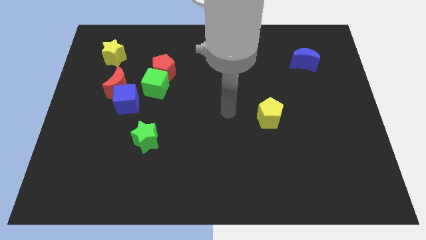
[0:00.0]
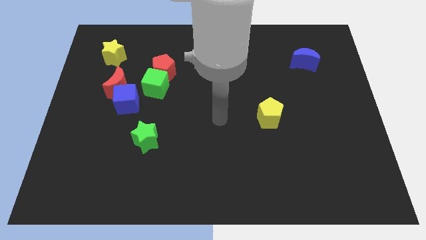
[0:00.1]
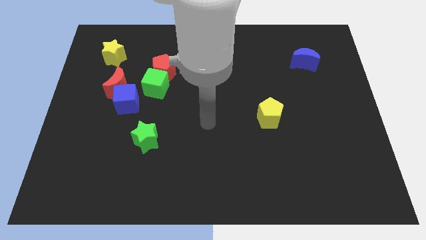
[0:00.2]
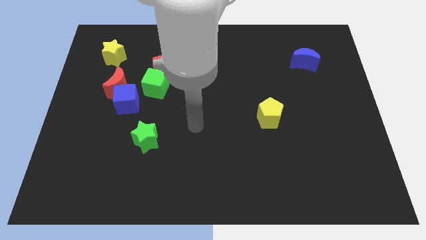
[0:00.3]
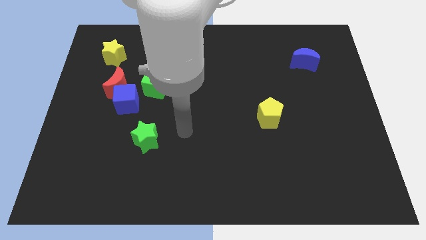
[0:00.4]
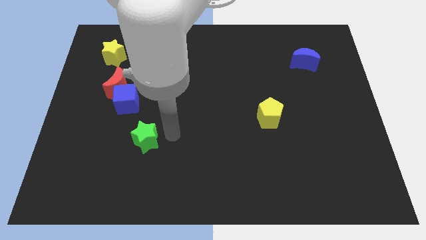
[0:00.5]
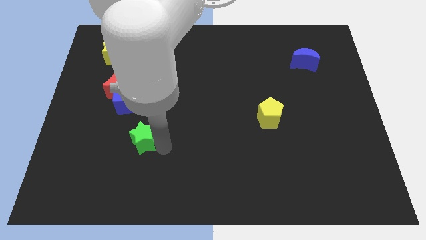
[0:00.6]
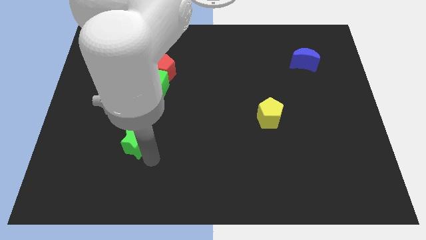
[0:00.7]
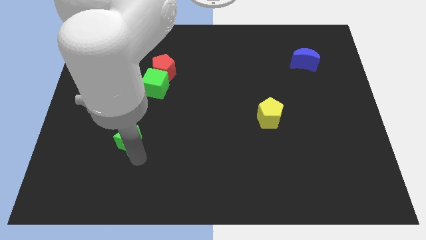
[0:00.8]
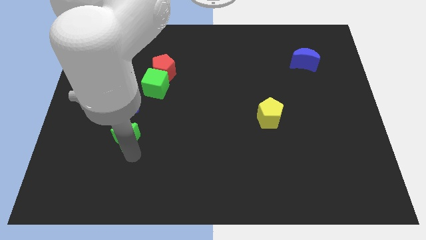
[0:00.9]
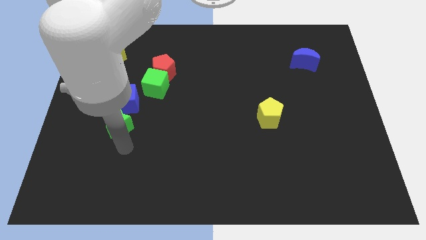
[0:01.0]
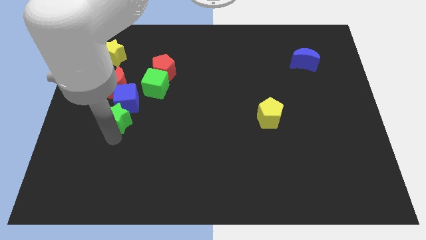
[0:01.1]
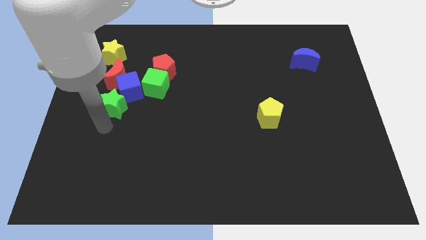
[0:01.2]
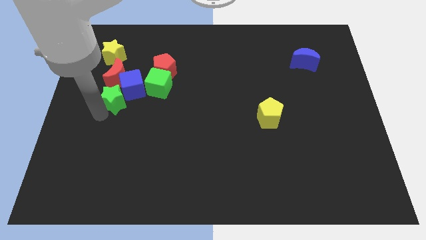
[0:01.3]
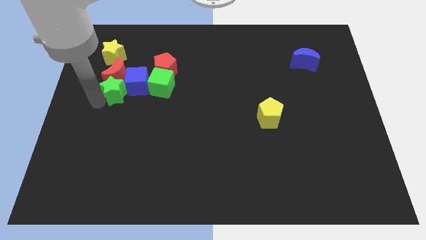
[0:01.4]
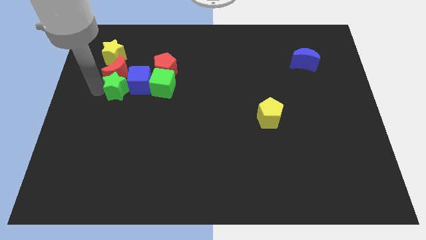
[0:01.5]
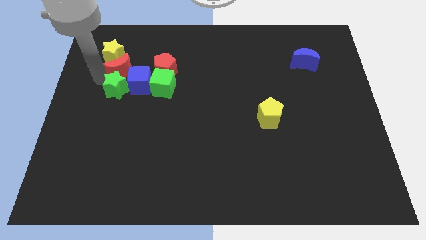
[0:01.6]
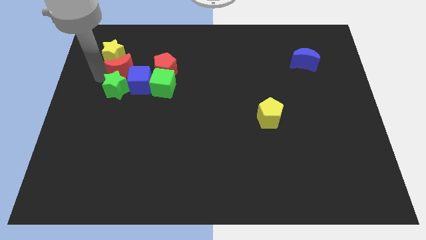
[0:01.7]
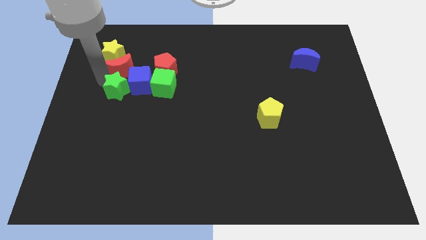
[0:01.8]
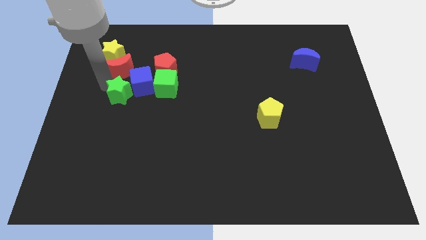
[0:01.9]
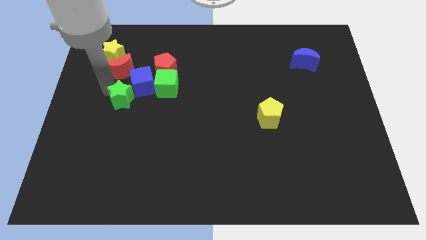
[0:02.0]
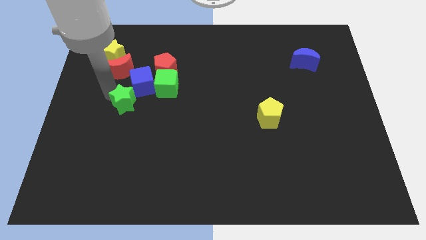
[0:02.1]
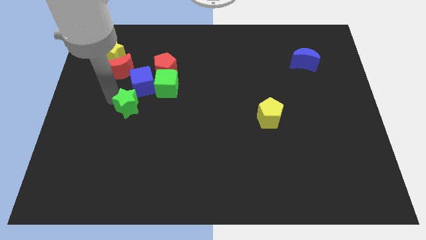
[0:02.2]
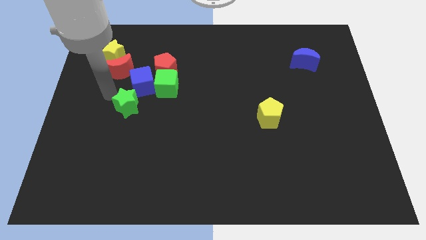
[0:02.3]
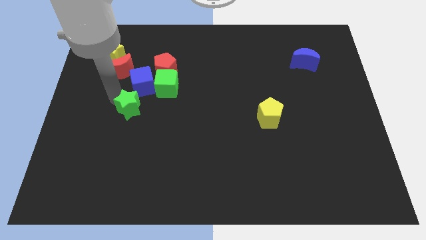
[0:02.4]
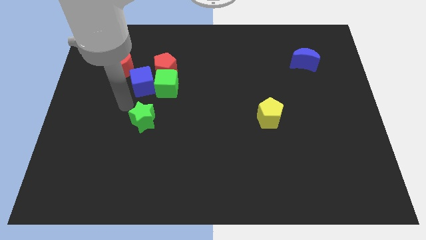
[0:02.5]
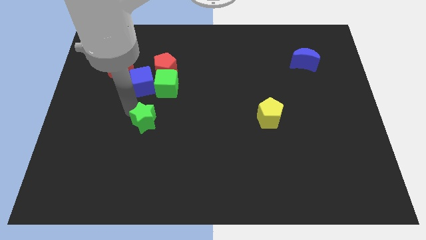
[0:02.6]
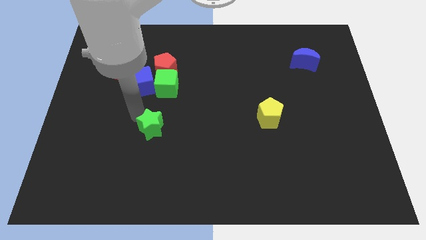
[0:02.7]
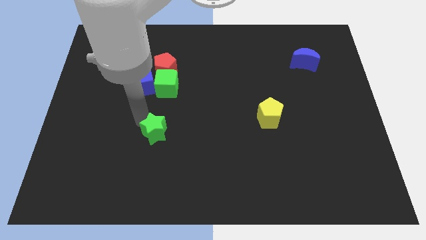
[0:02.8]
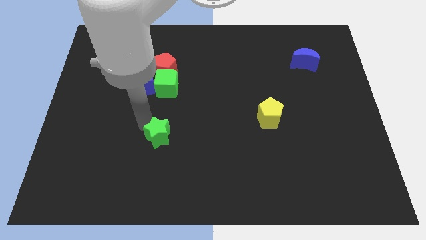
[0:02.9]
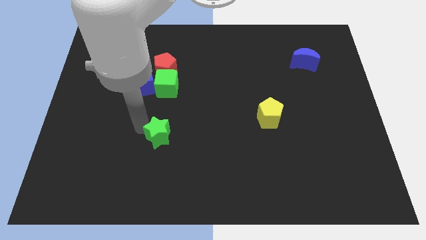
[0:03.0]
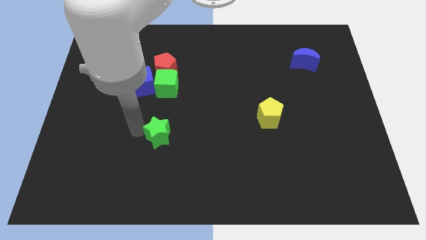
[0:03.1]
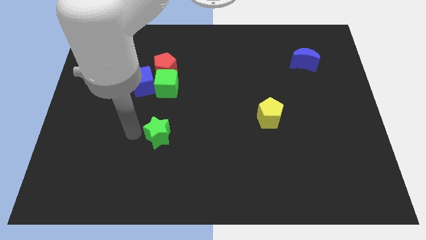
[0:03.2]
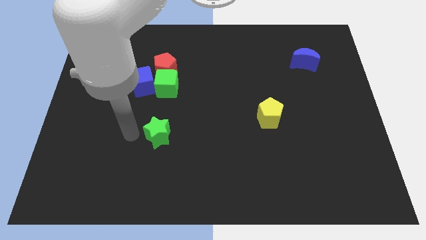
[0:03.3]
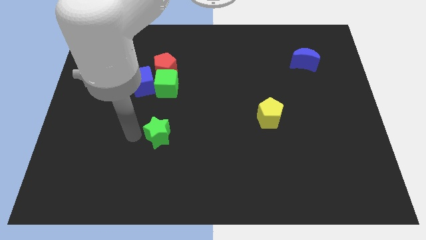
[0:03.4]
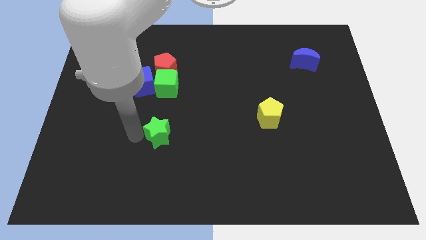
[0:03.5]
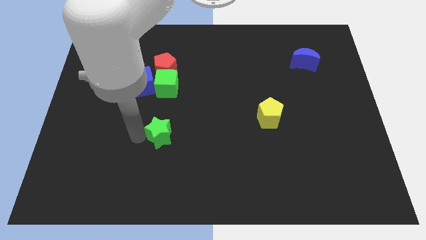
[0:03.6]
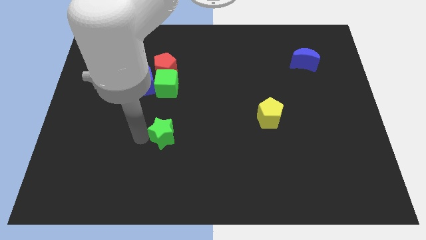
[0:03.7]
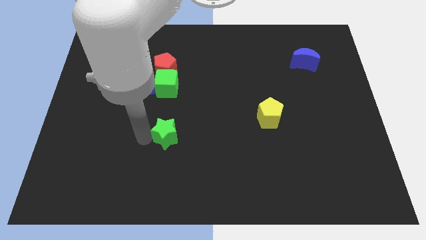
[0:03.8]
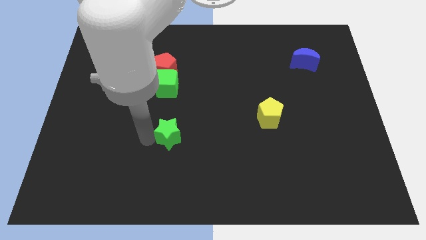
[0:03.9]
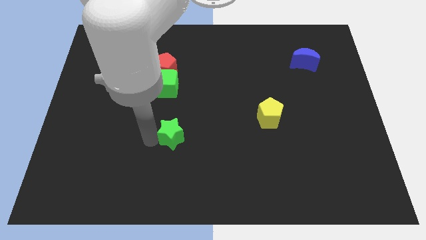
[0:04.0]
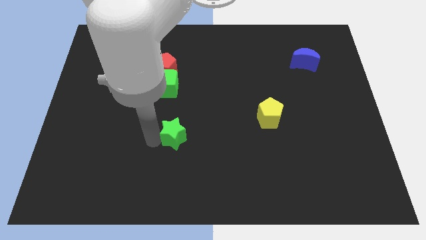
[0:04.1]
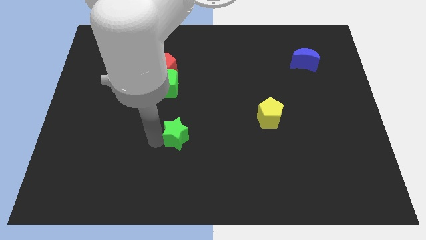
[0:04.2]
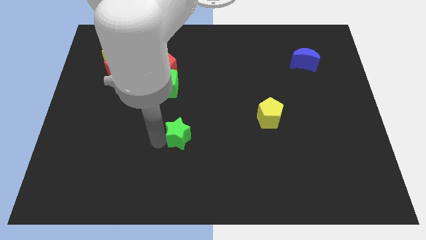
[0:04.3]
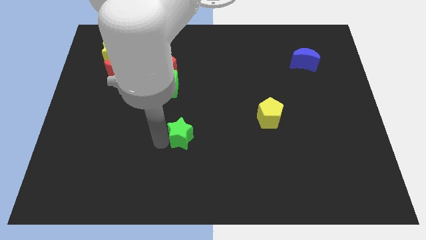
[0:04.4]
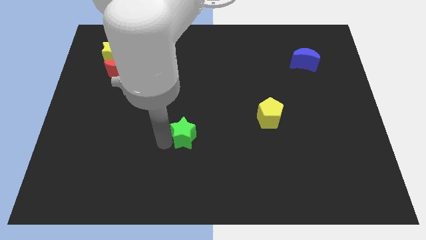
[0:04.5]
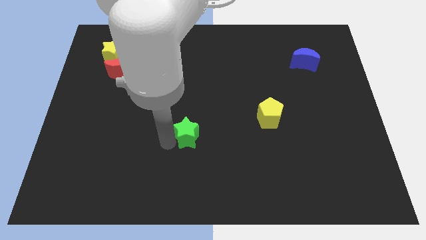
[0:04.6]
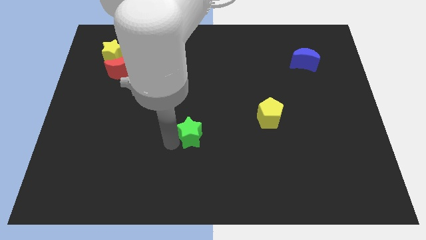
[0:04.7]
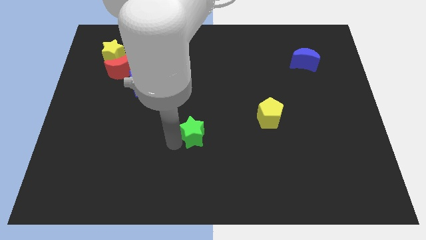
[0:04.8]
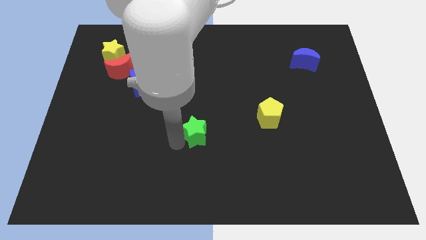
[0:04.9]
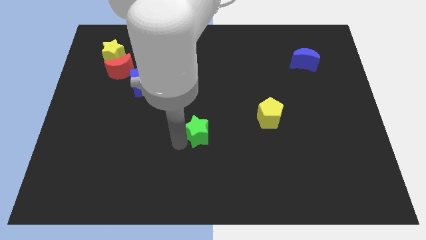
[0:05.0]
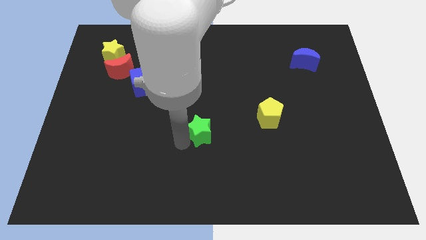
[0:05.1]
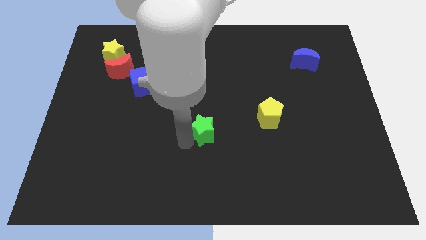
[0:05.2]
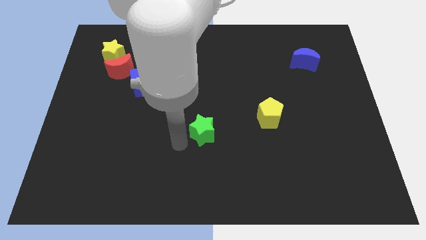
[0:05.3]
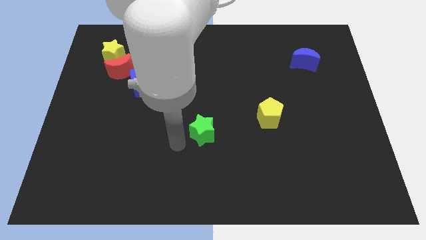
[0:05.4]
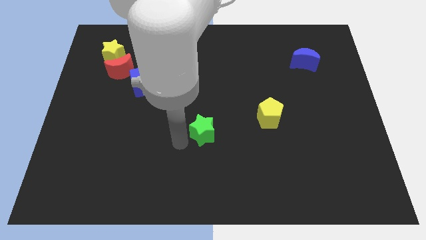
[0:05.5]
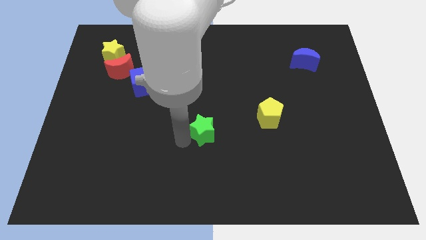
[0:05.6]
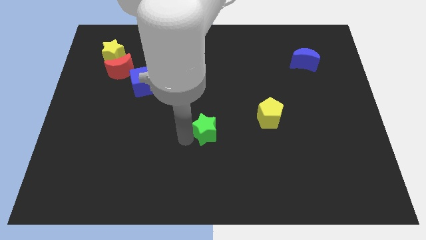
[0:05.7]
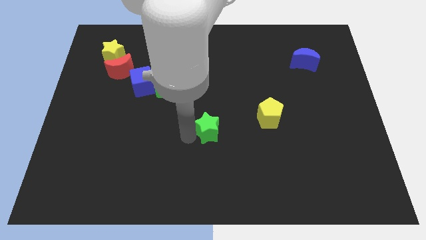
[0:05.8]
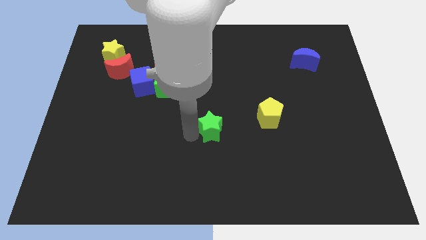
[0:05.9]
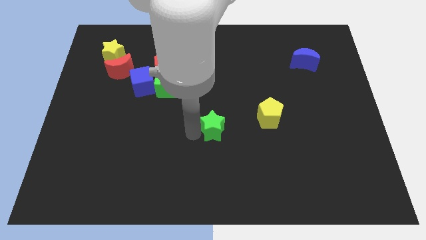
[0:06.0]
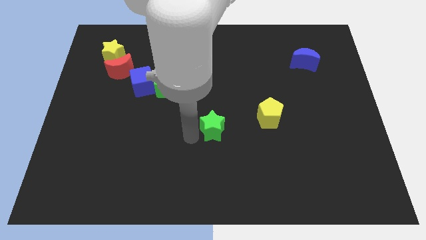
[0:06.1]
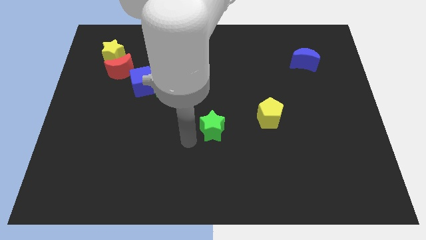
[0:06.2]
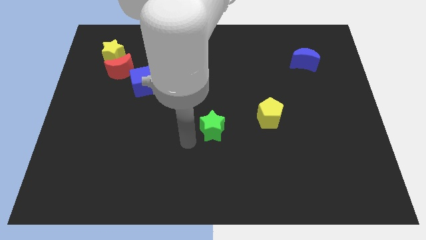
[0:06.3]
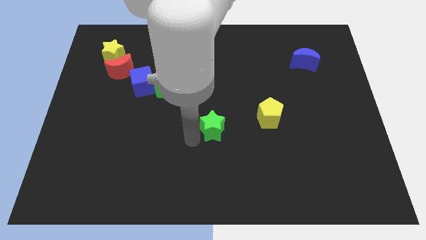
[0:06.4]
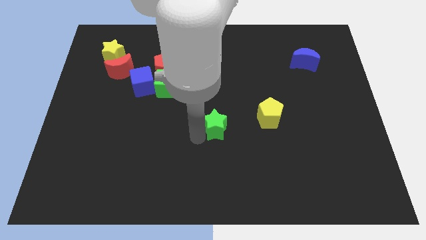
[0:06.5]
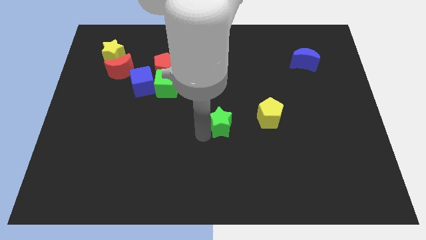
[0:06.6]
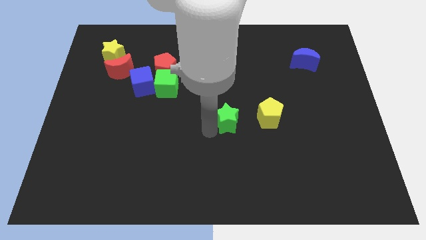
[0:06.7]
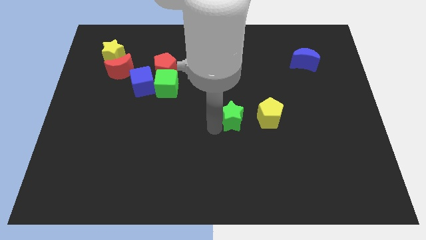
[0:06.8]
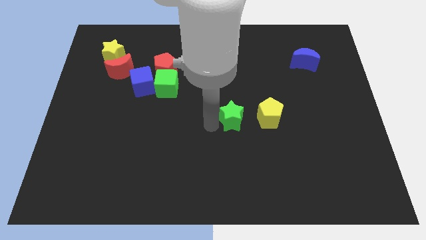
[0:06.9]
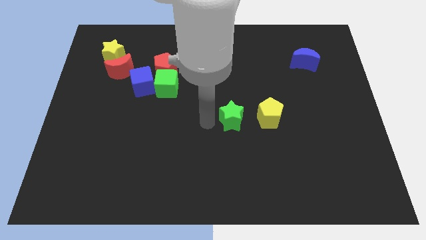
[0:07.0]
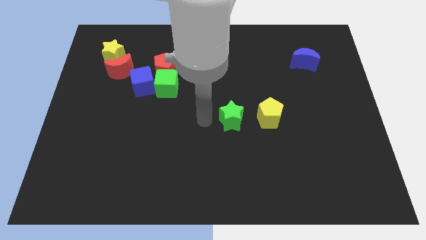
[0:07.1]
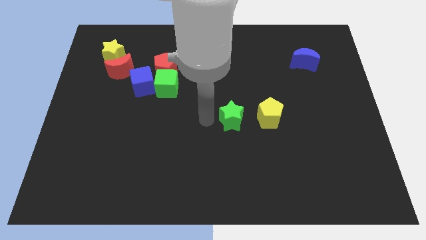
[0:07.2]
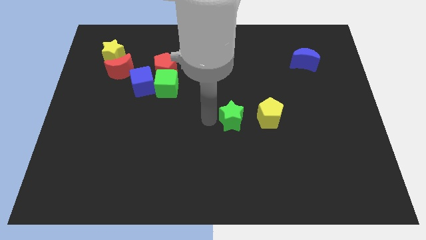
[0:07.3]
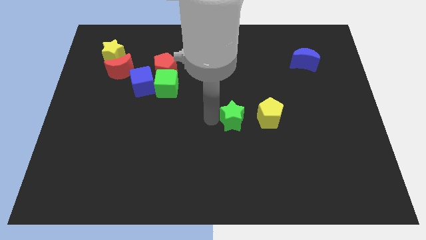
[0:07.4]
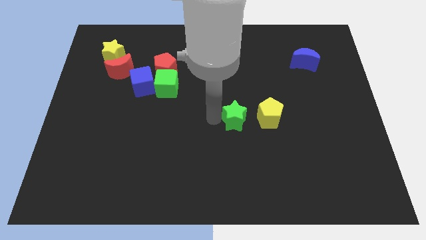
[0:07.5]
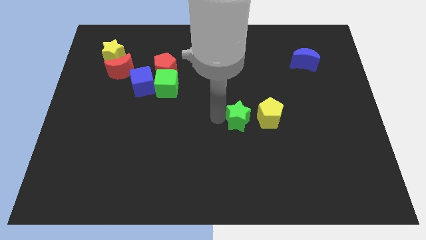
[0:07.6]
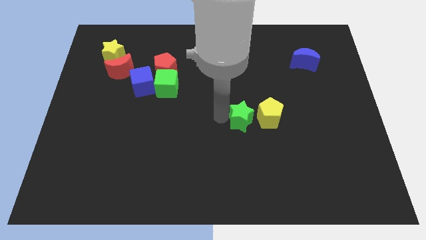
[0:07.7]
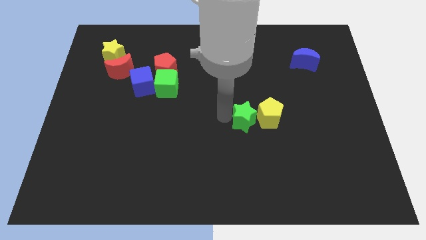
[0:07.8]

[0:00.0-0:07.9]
slide the green star close to the yellow pentagon
